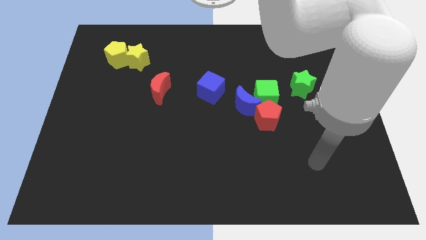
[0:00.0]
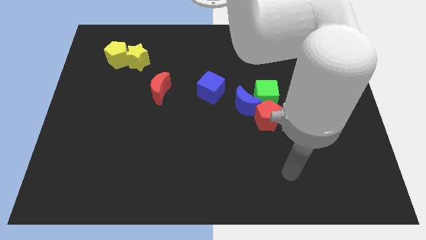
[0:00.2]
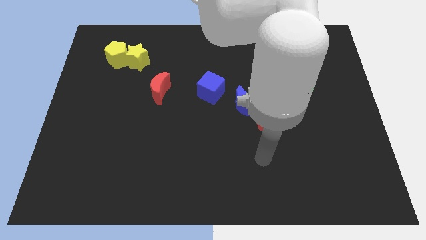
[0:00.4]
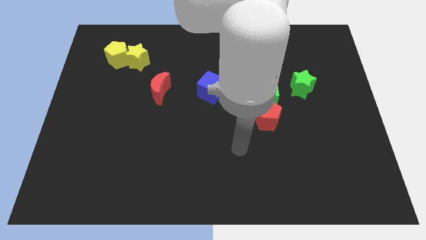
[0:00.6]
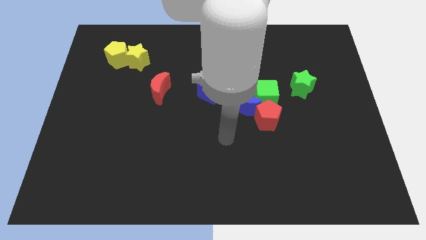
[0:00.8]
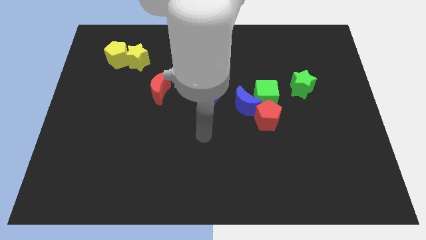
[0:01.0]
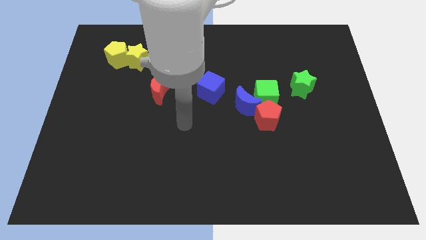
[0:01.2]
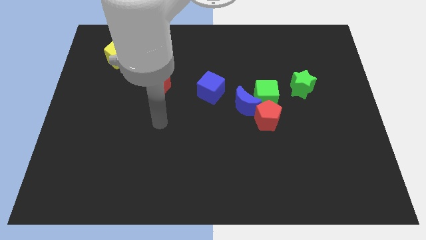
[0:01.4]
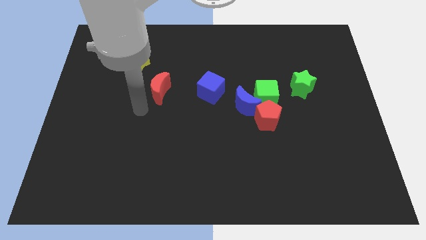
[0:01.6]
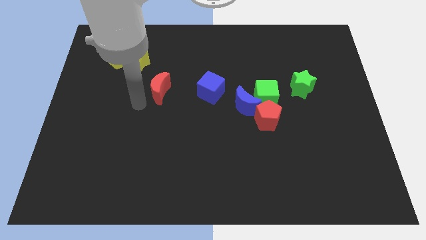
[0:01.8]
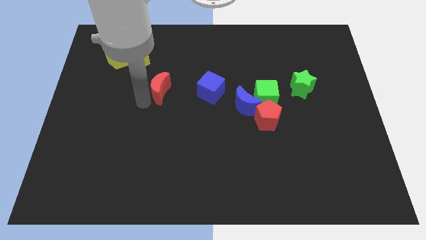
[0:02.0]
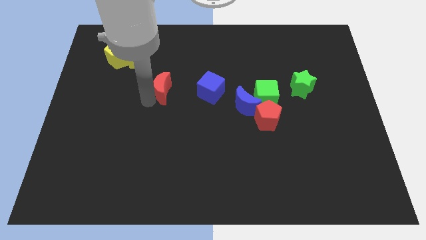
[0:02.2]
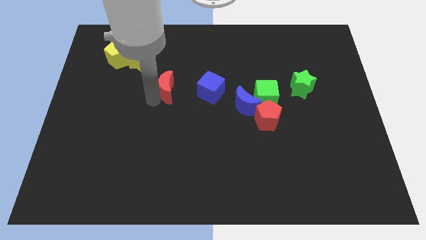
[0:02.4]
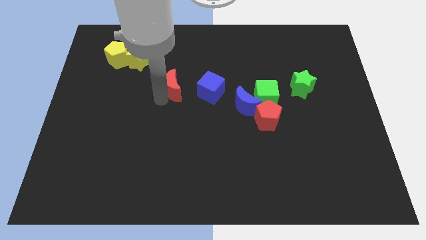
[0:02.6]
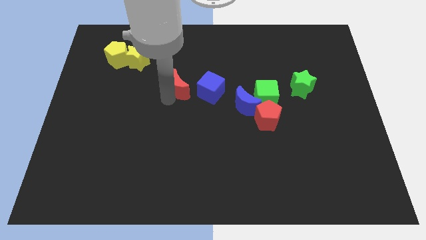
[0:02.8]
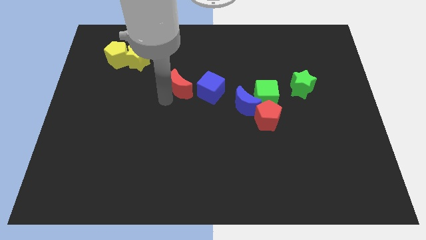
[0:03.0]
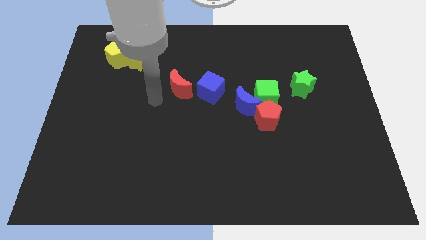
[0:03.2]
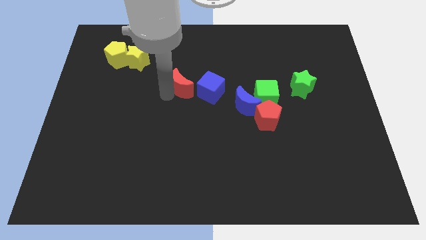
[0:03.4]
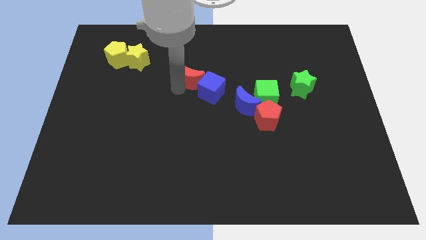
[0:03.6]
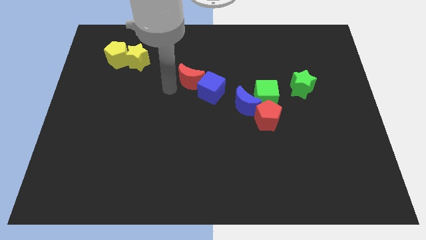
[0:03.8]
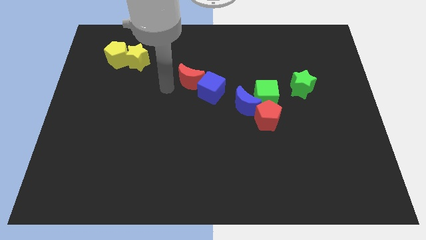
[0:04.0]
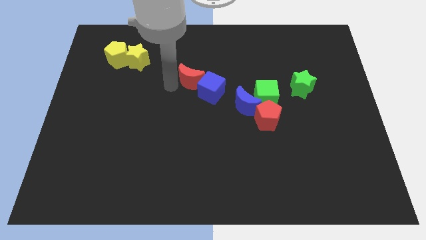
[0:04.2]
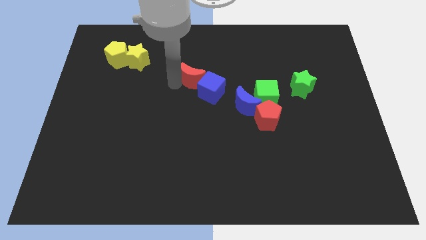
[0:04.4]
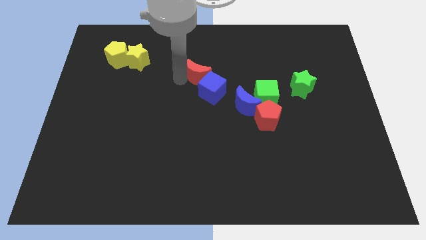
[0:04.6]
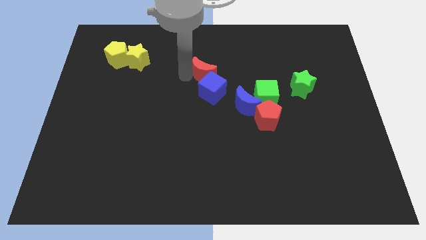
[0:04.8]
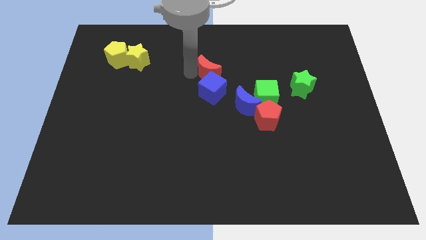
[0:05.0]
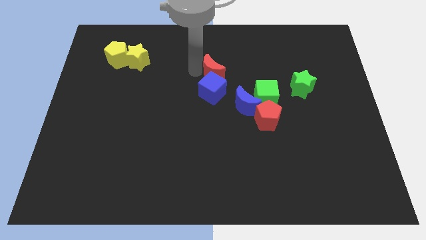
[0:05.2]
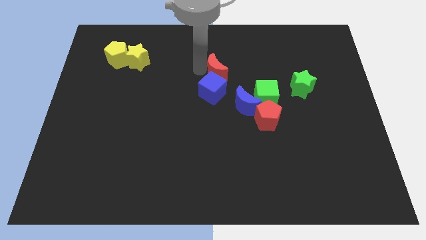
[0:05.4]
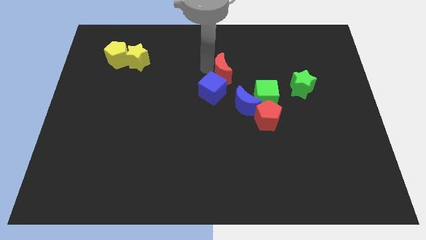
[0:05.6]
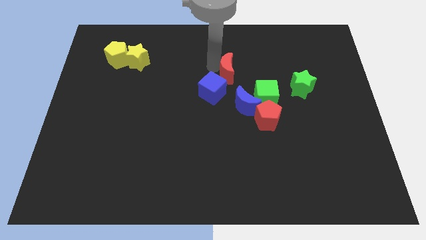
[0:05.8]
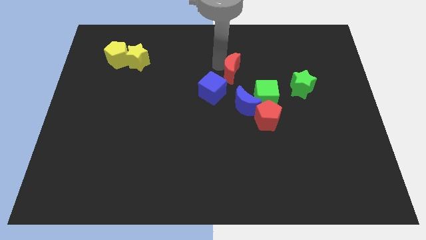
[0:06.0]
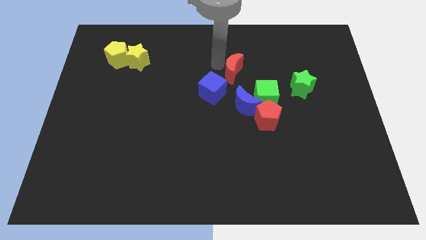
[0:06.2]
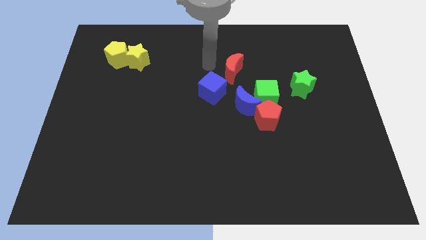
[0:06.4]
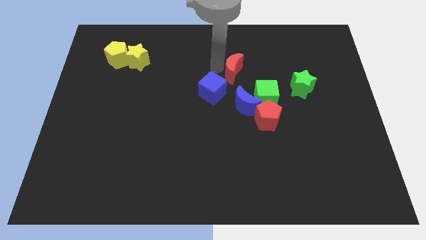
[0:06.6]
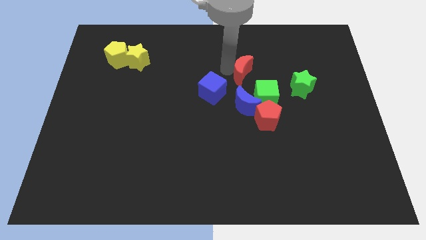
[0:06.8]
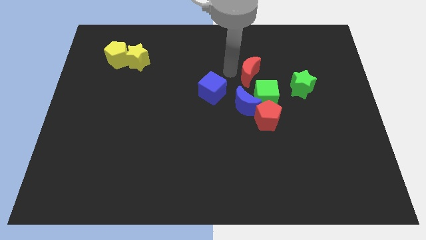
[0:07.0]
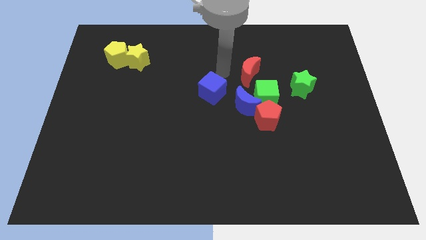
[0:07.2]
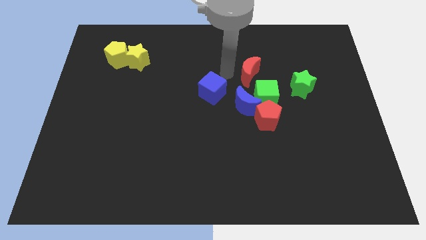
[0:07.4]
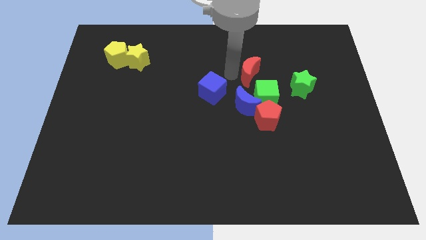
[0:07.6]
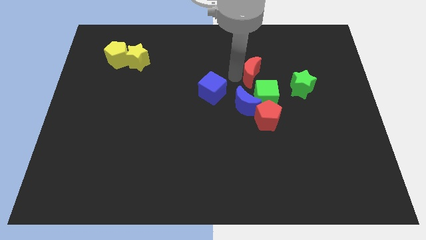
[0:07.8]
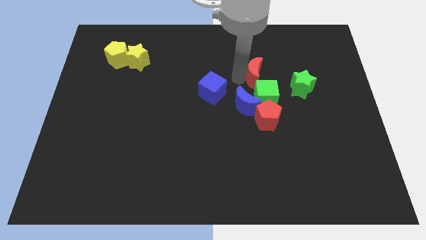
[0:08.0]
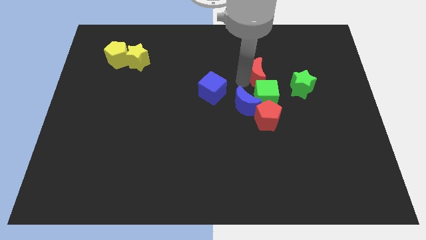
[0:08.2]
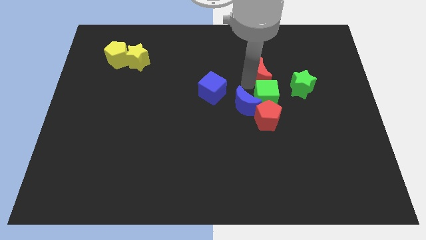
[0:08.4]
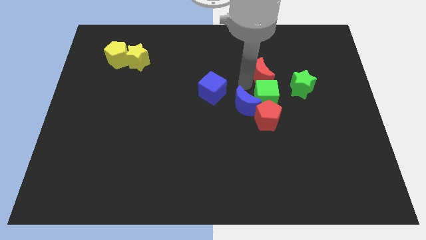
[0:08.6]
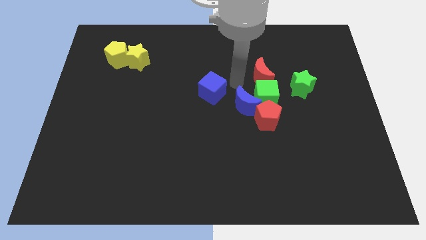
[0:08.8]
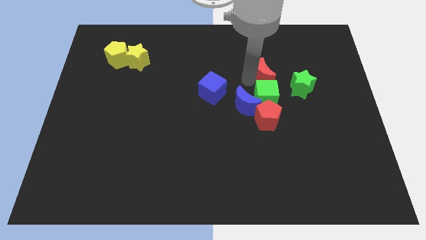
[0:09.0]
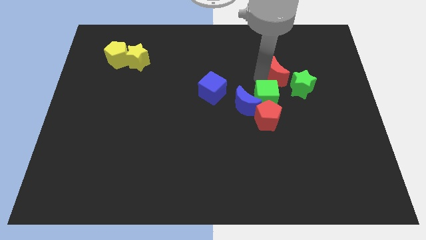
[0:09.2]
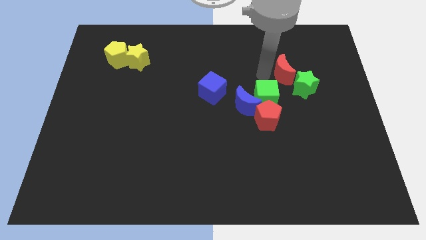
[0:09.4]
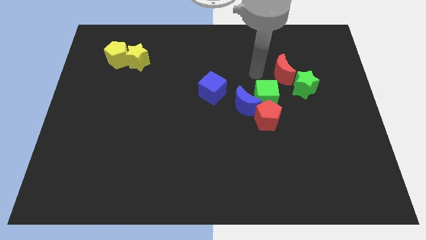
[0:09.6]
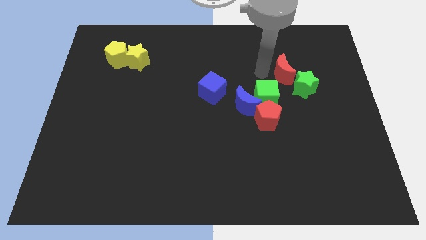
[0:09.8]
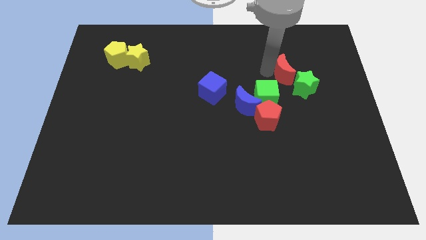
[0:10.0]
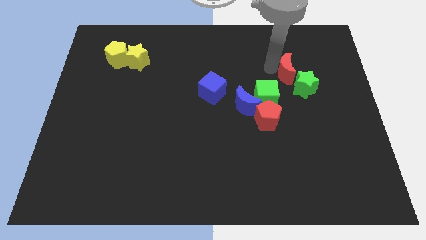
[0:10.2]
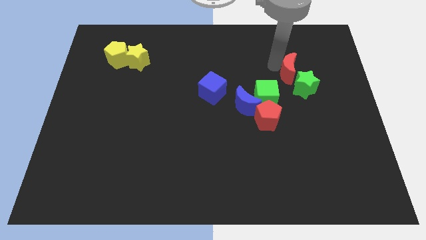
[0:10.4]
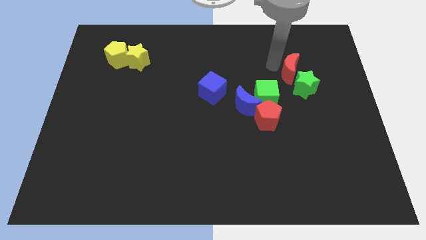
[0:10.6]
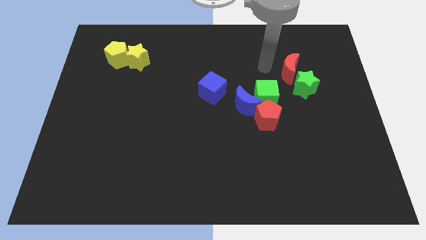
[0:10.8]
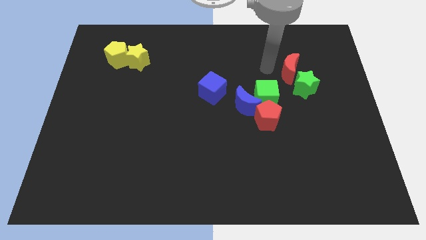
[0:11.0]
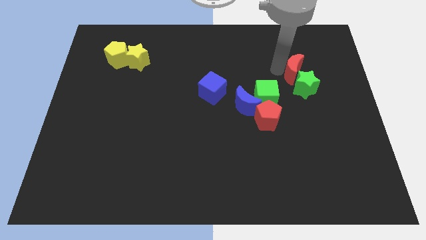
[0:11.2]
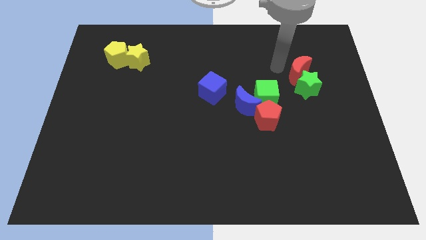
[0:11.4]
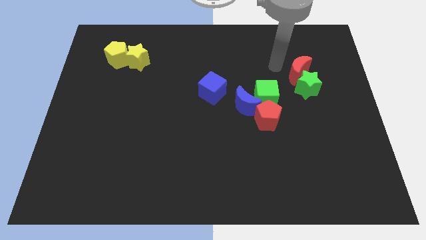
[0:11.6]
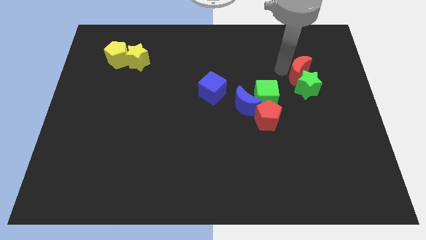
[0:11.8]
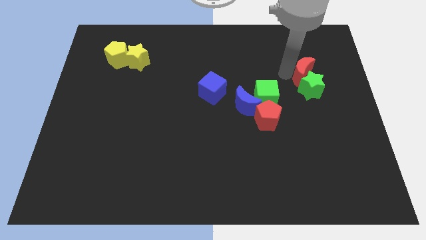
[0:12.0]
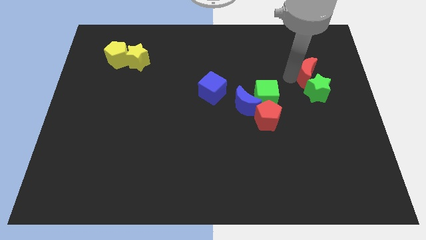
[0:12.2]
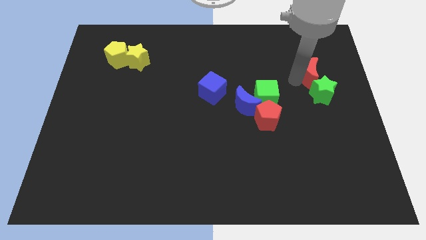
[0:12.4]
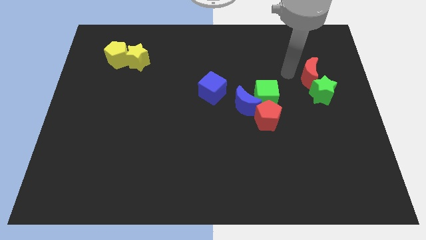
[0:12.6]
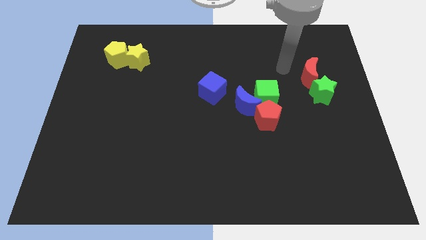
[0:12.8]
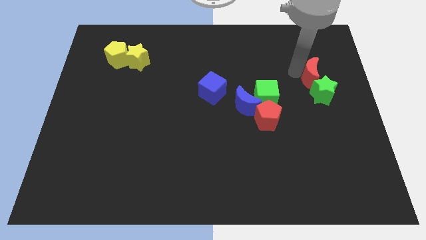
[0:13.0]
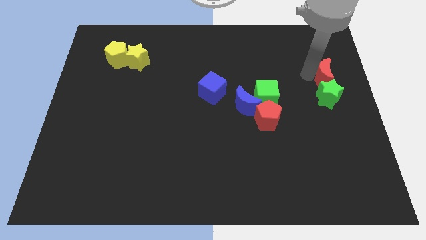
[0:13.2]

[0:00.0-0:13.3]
push the red moon to the center right

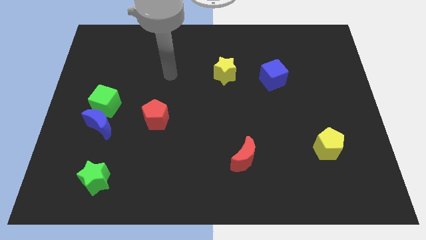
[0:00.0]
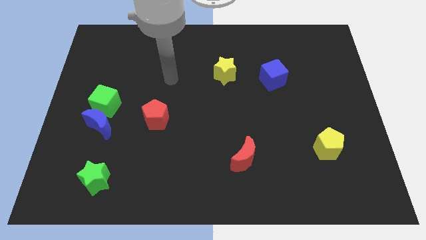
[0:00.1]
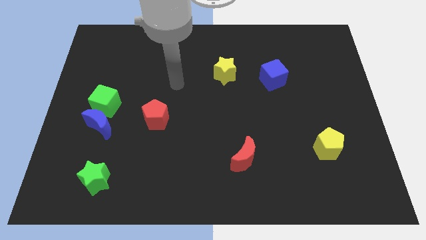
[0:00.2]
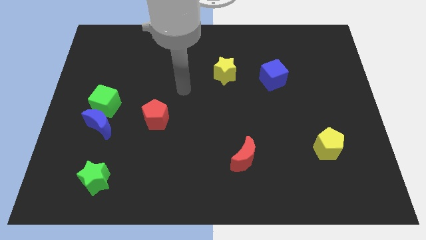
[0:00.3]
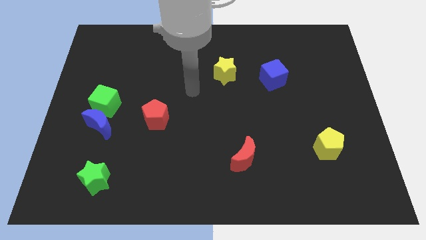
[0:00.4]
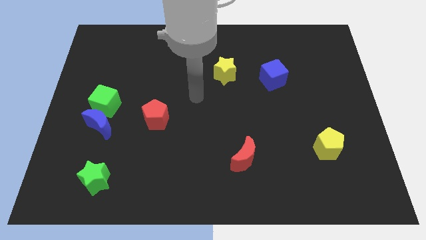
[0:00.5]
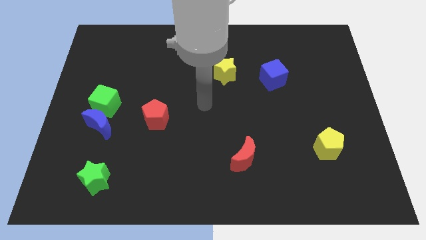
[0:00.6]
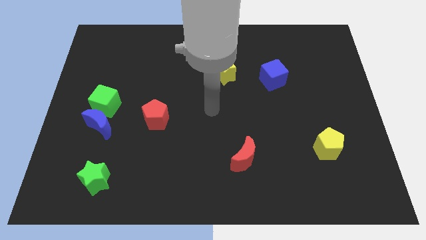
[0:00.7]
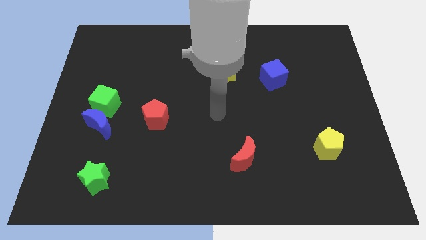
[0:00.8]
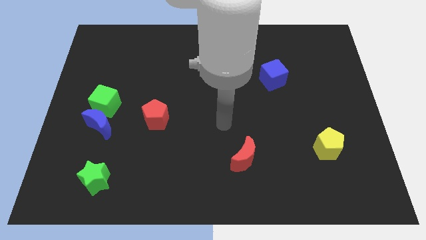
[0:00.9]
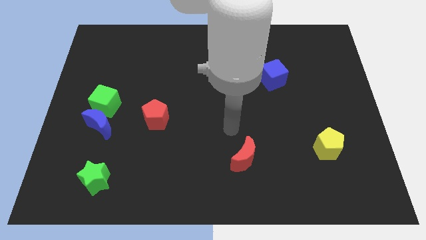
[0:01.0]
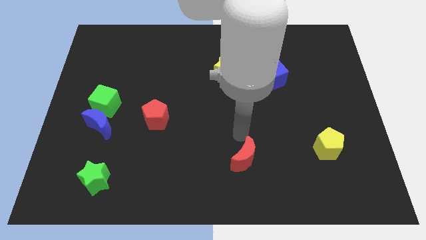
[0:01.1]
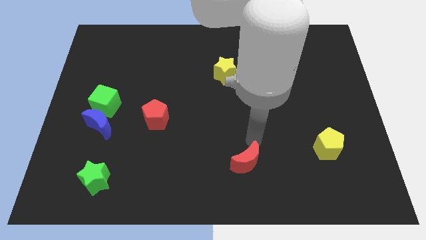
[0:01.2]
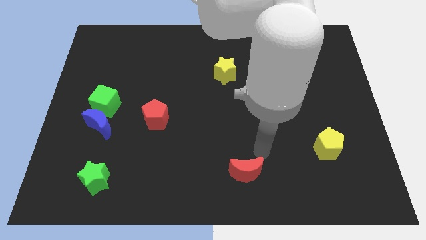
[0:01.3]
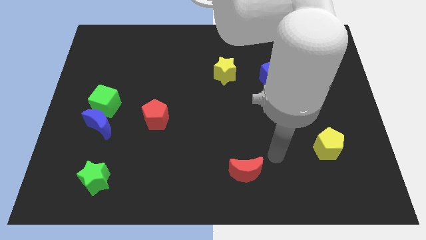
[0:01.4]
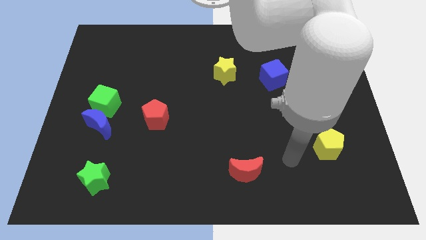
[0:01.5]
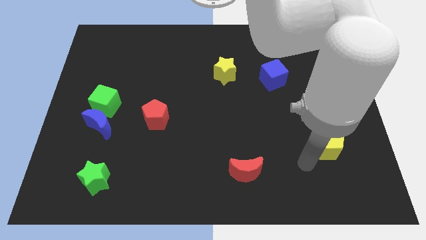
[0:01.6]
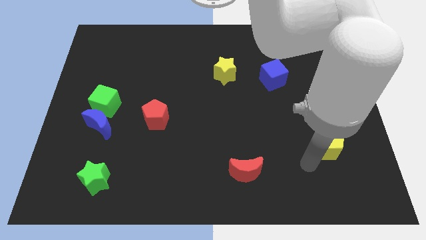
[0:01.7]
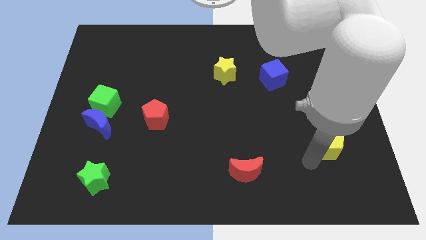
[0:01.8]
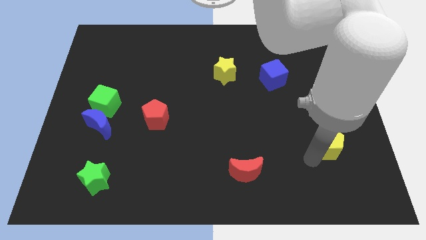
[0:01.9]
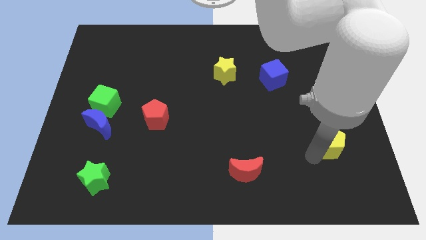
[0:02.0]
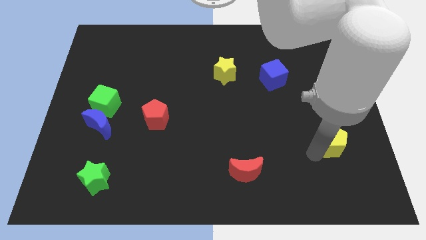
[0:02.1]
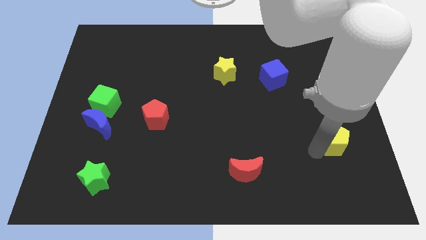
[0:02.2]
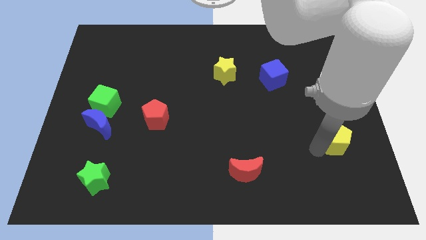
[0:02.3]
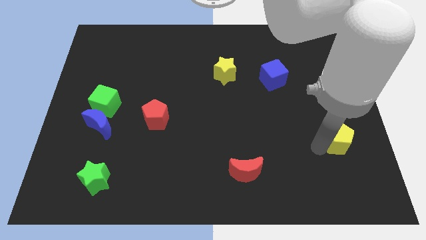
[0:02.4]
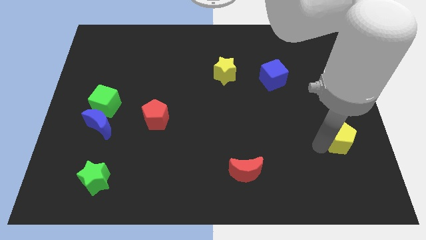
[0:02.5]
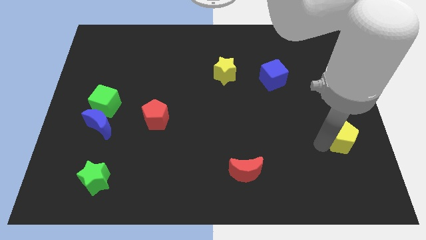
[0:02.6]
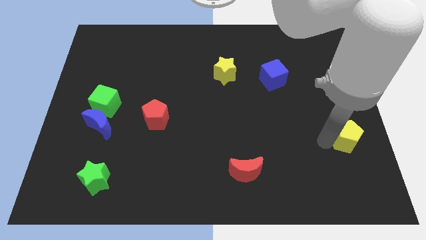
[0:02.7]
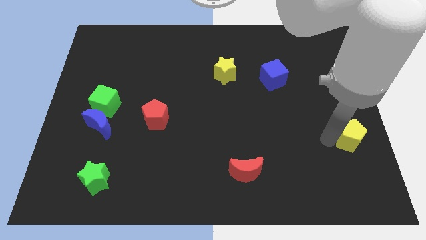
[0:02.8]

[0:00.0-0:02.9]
move the yellow pentagon to the right side
